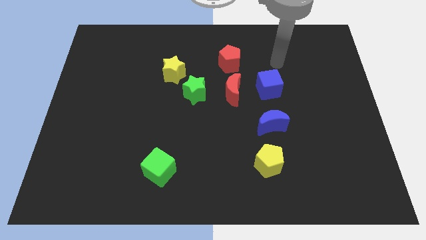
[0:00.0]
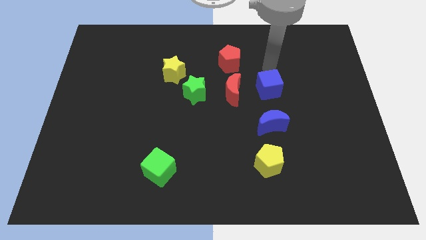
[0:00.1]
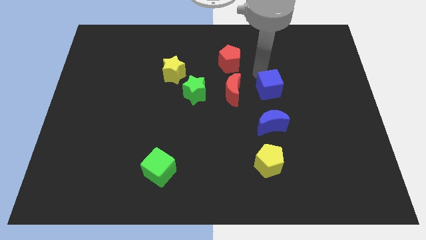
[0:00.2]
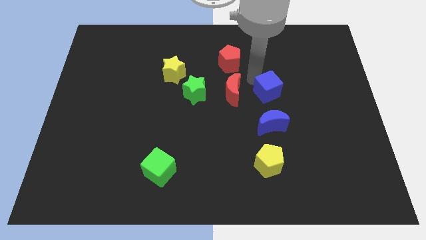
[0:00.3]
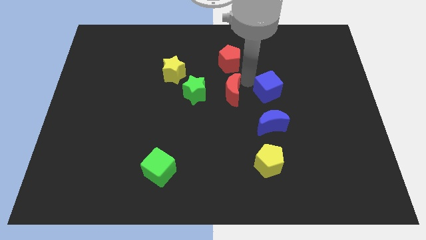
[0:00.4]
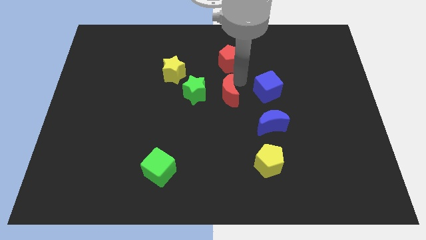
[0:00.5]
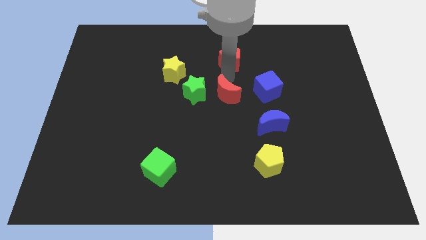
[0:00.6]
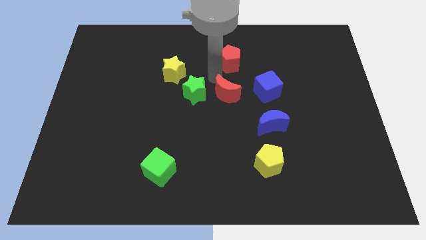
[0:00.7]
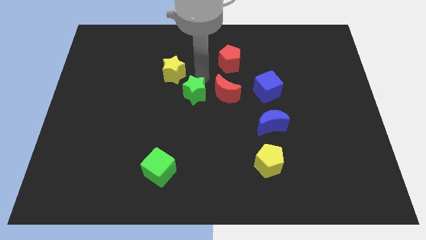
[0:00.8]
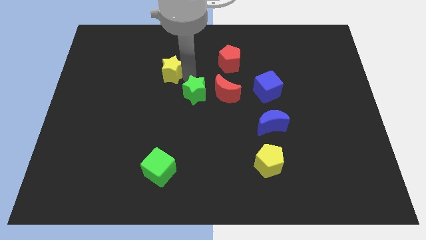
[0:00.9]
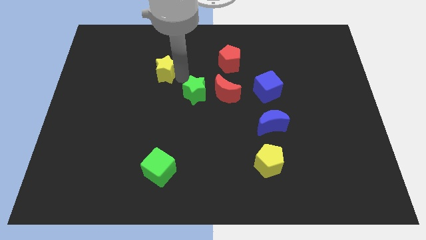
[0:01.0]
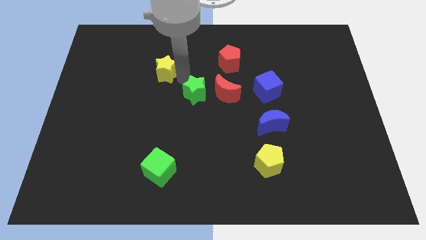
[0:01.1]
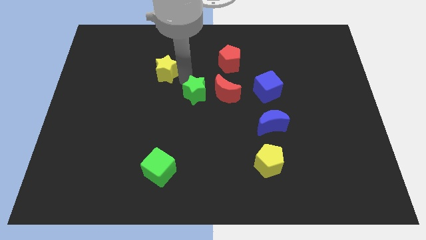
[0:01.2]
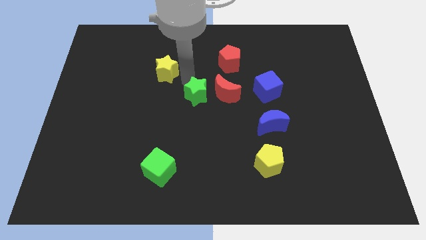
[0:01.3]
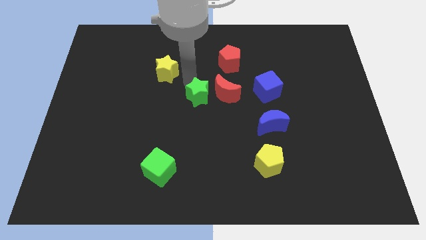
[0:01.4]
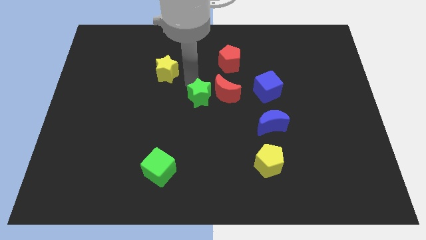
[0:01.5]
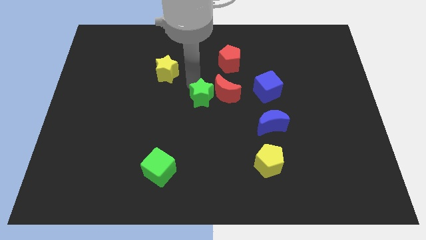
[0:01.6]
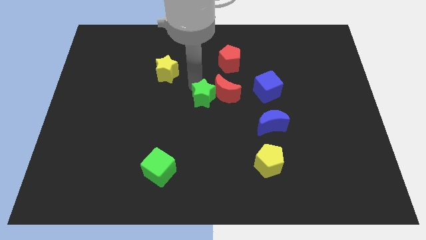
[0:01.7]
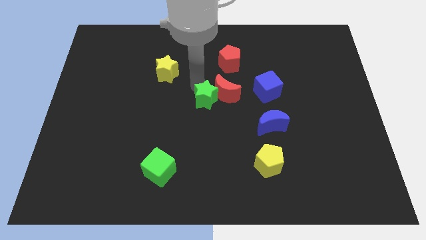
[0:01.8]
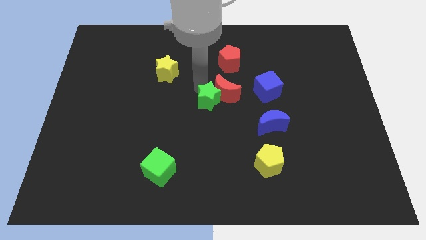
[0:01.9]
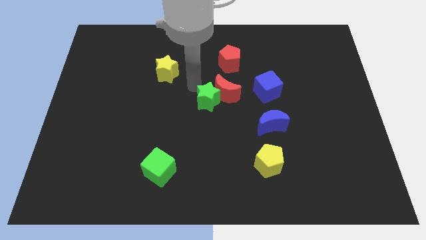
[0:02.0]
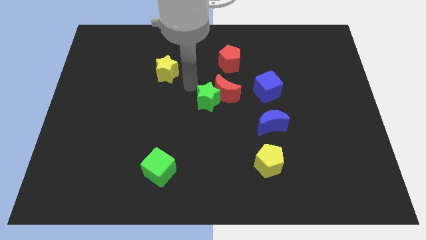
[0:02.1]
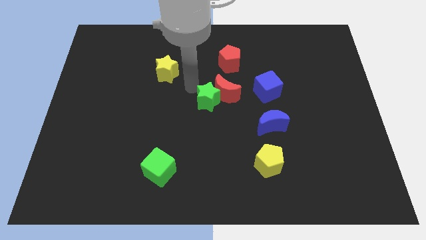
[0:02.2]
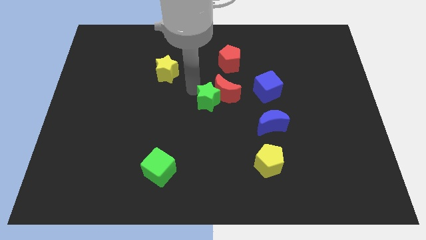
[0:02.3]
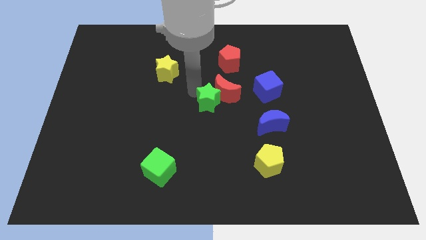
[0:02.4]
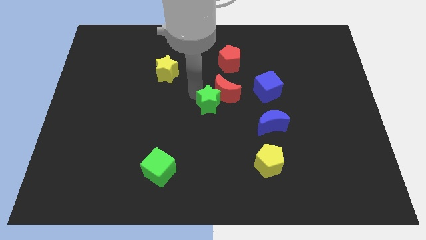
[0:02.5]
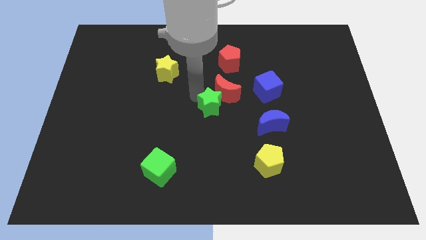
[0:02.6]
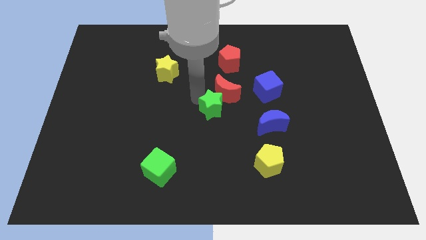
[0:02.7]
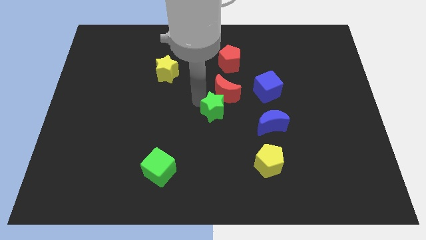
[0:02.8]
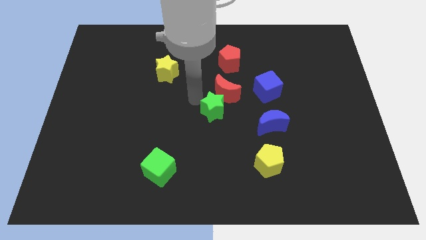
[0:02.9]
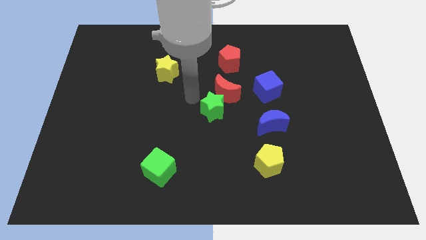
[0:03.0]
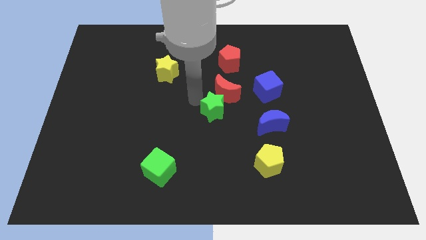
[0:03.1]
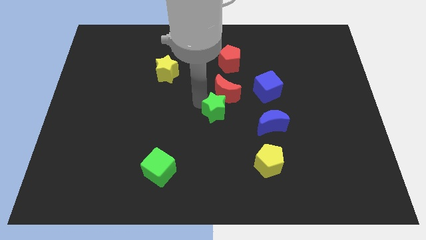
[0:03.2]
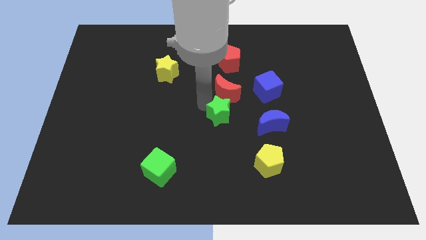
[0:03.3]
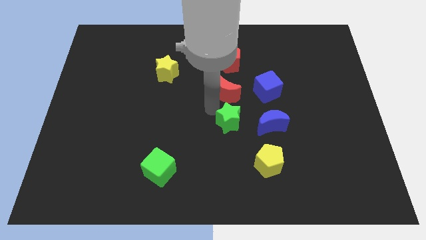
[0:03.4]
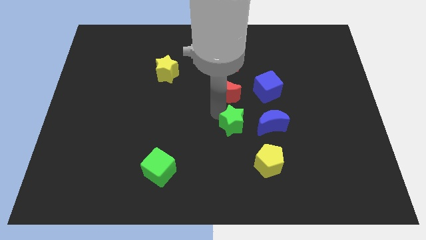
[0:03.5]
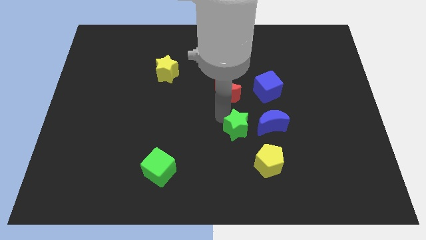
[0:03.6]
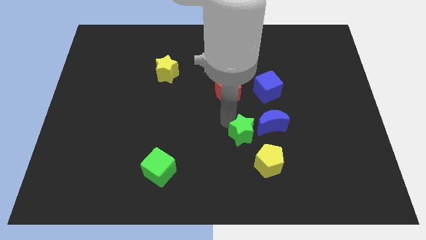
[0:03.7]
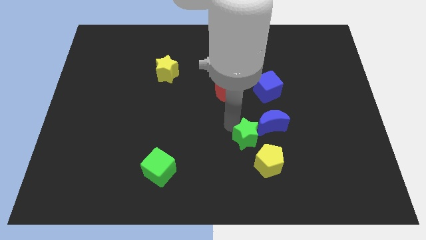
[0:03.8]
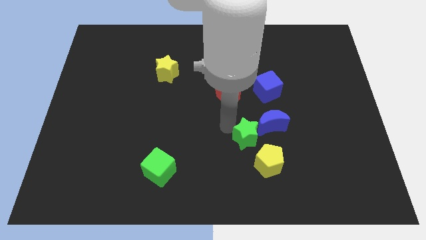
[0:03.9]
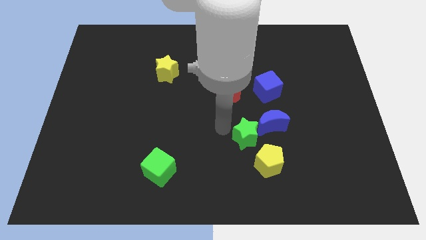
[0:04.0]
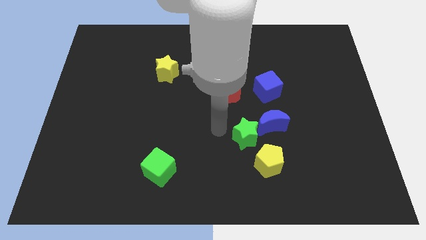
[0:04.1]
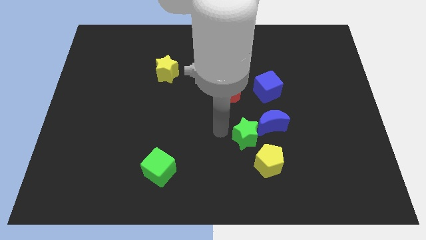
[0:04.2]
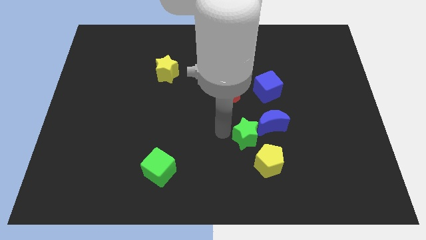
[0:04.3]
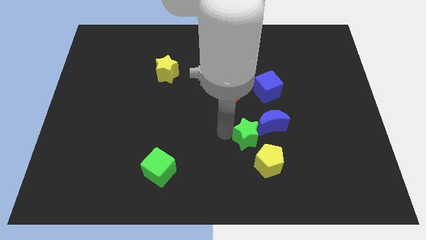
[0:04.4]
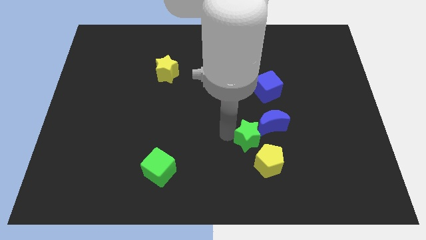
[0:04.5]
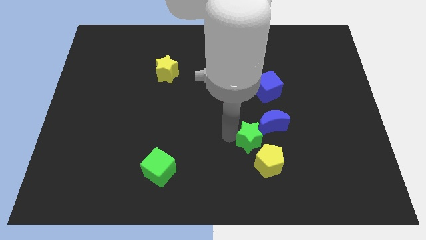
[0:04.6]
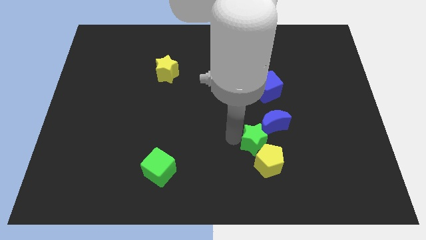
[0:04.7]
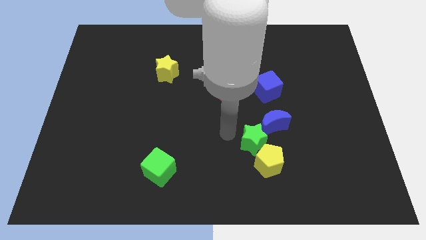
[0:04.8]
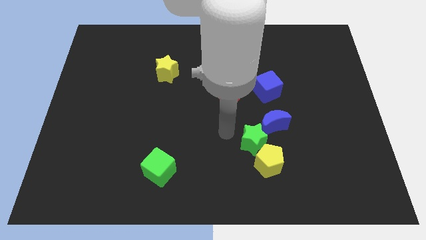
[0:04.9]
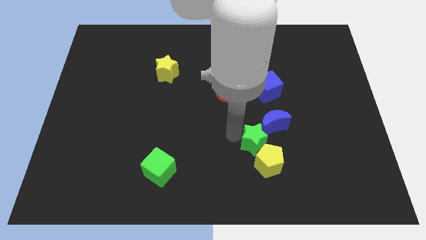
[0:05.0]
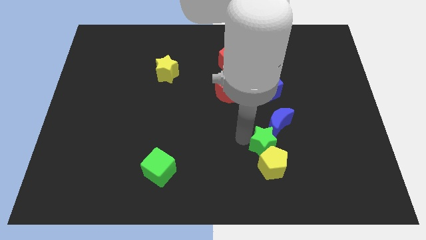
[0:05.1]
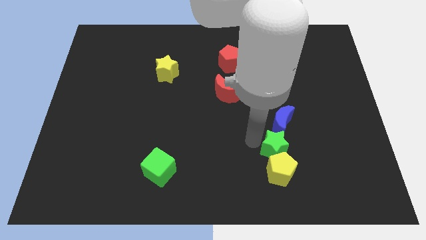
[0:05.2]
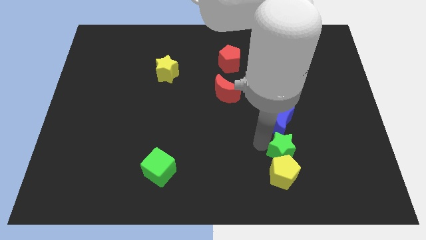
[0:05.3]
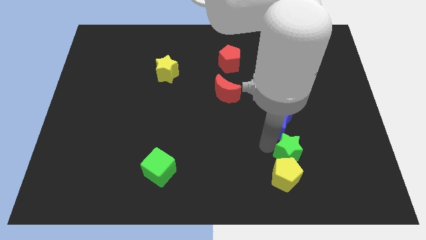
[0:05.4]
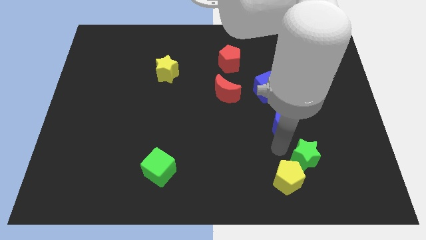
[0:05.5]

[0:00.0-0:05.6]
slide the green star right of the yellow pentagon

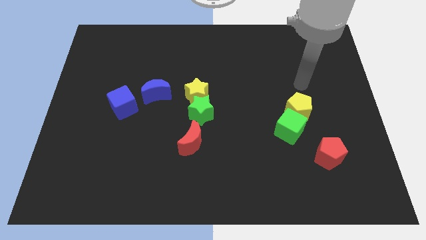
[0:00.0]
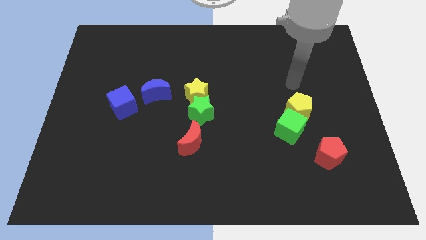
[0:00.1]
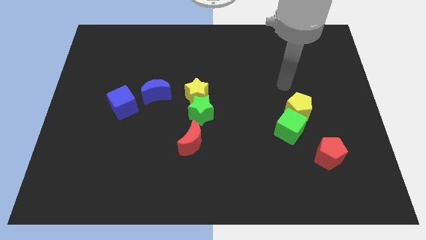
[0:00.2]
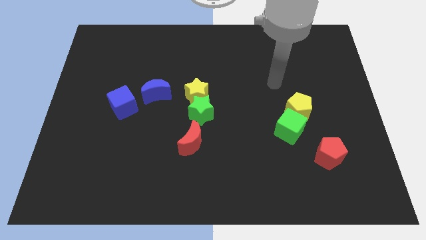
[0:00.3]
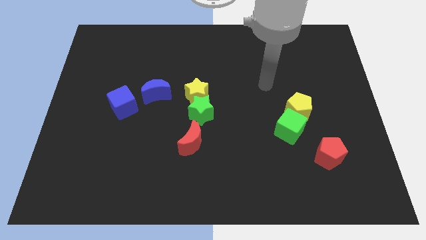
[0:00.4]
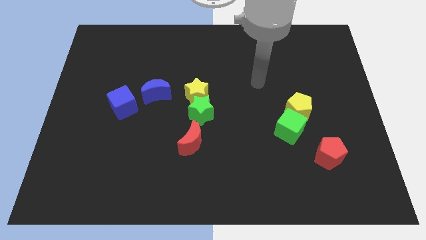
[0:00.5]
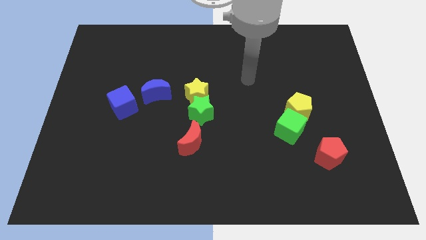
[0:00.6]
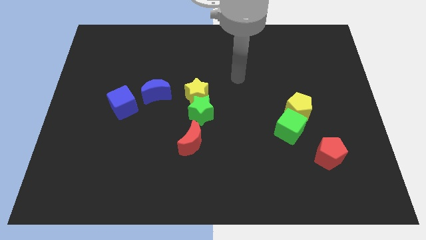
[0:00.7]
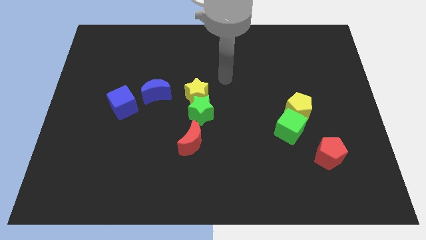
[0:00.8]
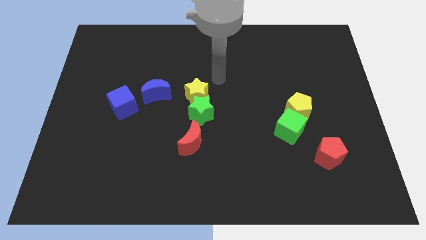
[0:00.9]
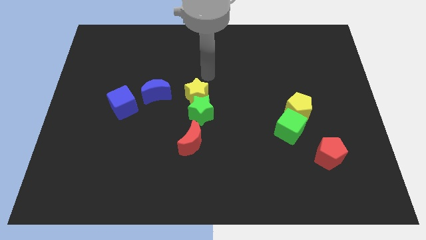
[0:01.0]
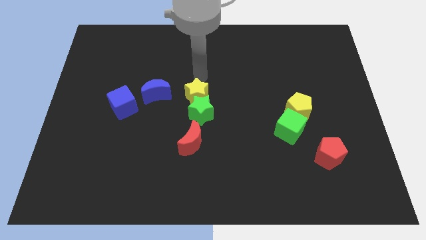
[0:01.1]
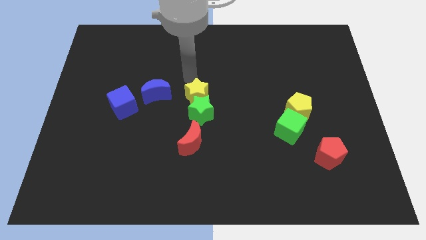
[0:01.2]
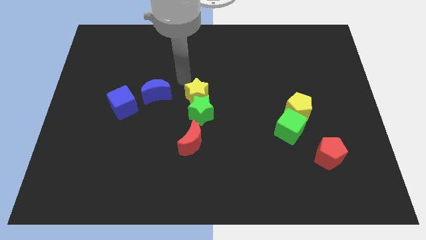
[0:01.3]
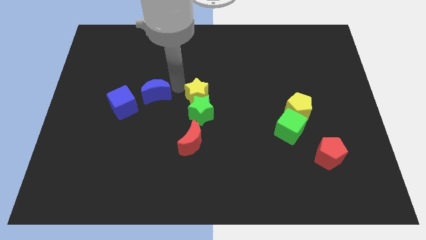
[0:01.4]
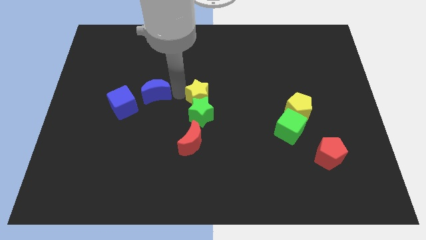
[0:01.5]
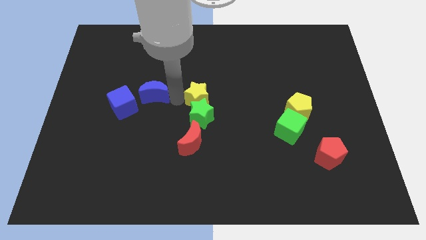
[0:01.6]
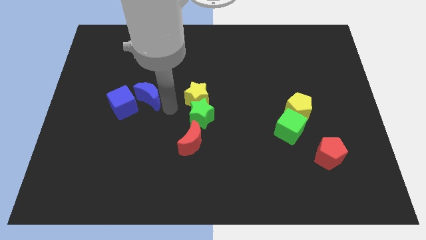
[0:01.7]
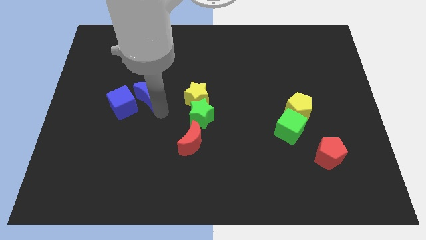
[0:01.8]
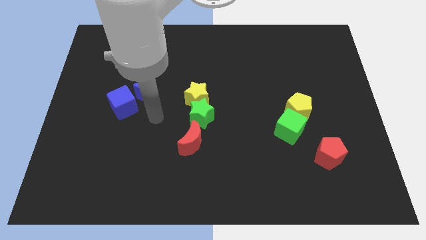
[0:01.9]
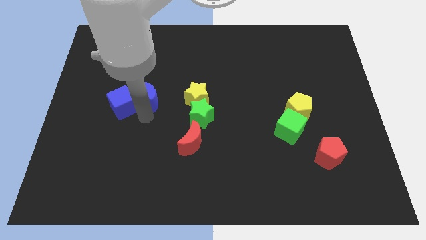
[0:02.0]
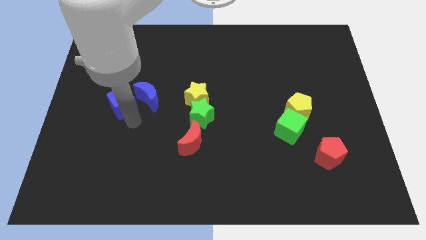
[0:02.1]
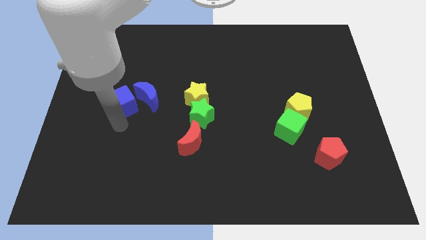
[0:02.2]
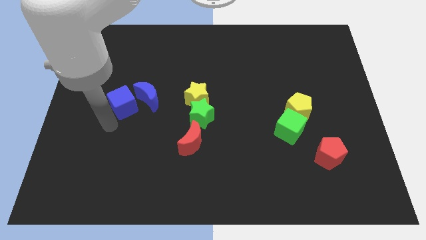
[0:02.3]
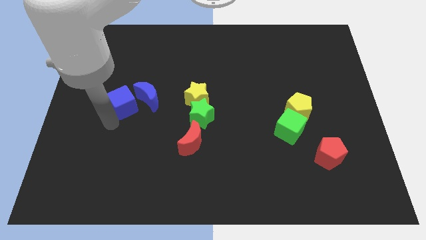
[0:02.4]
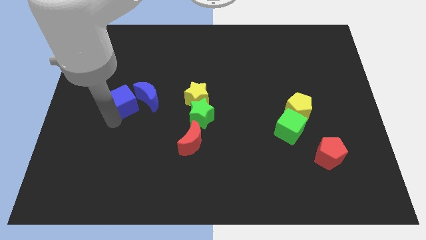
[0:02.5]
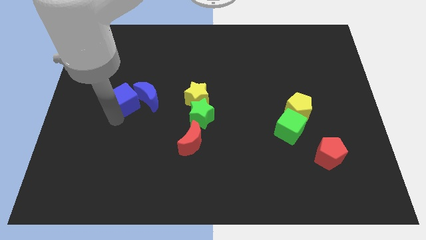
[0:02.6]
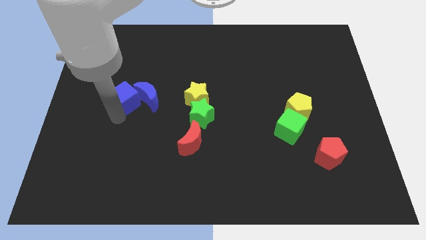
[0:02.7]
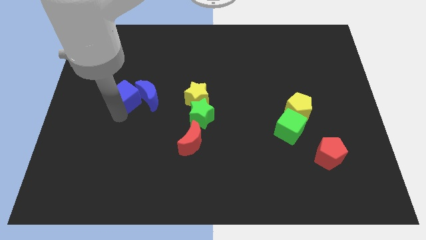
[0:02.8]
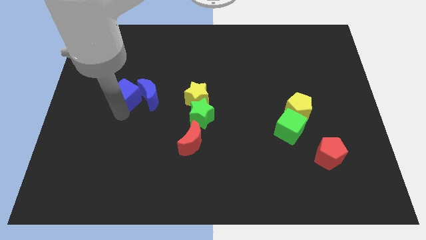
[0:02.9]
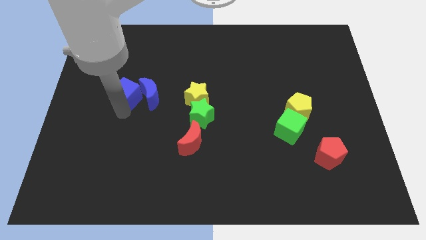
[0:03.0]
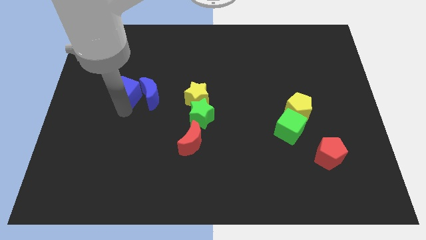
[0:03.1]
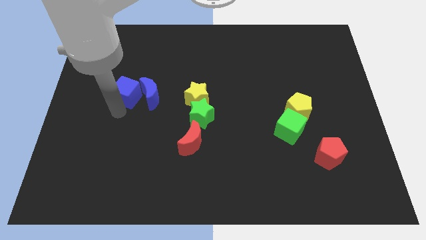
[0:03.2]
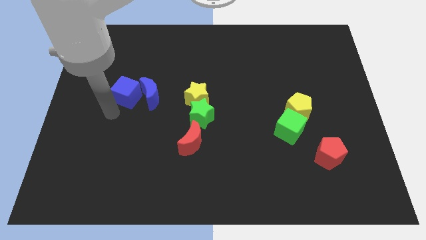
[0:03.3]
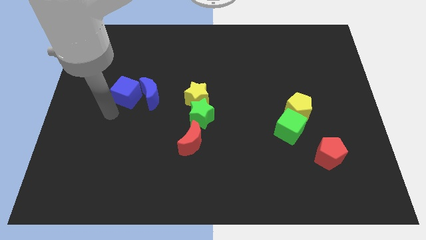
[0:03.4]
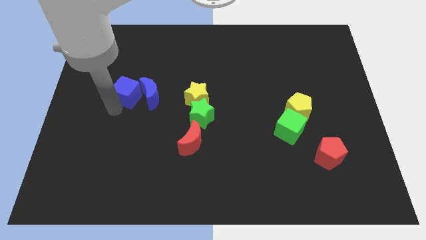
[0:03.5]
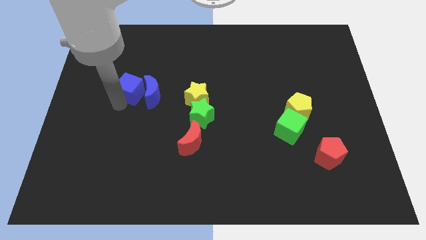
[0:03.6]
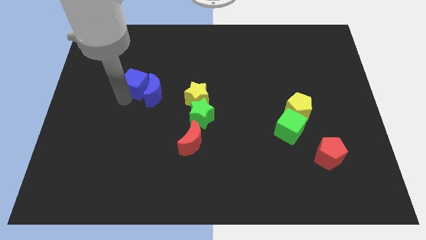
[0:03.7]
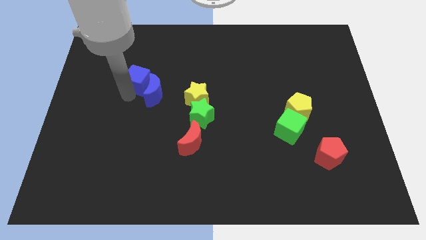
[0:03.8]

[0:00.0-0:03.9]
push the blue cube to the top side of the blue moon
